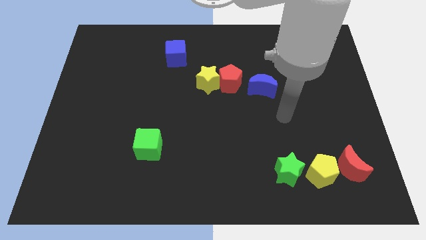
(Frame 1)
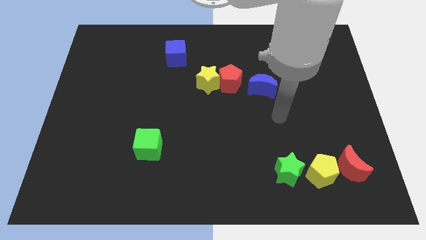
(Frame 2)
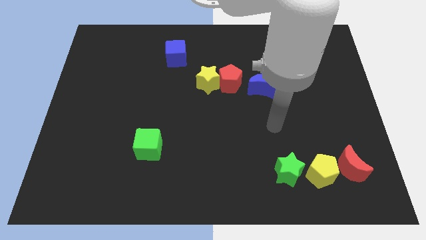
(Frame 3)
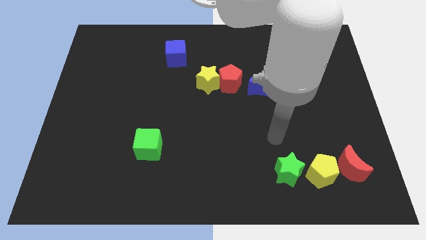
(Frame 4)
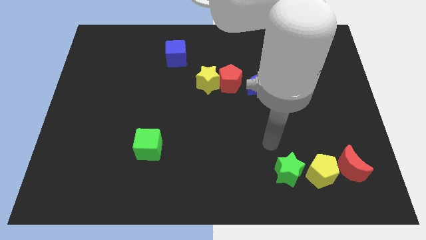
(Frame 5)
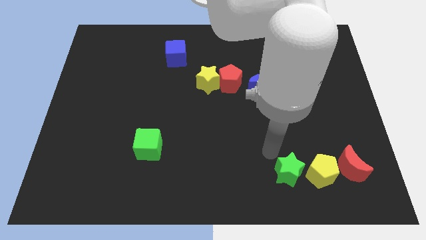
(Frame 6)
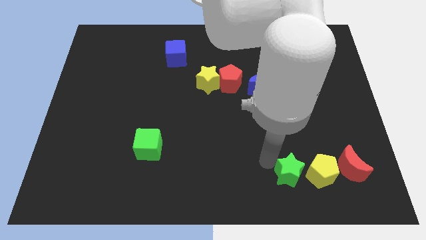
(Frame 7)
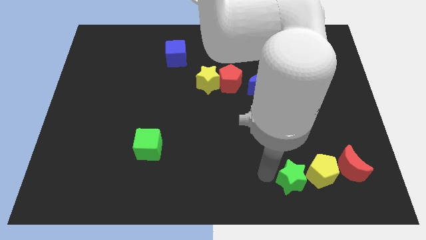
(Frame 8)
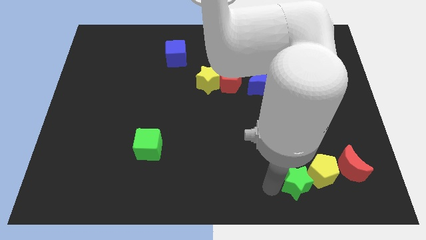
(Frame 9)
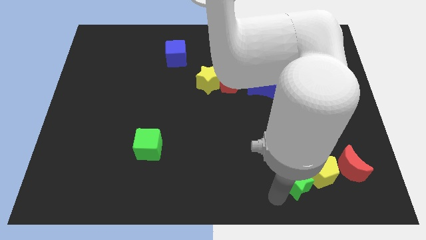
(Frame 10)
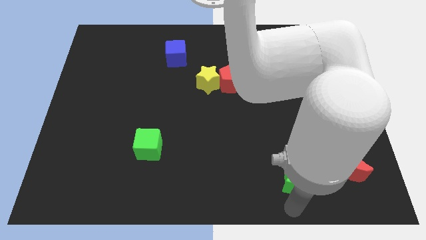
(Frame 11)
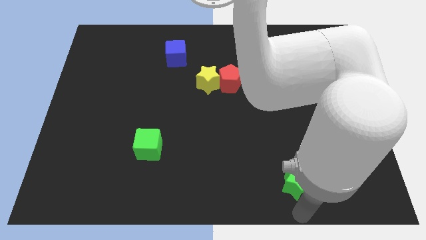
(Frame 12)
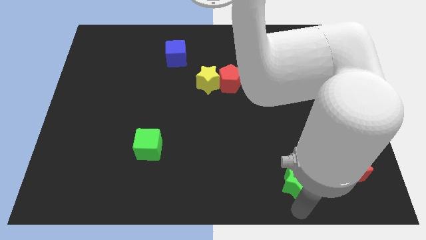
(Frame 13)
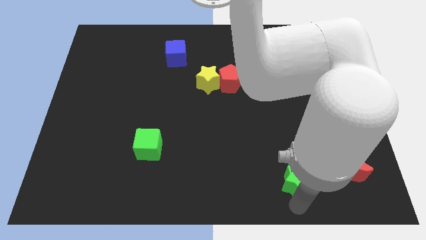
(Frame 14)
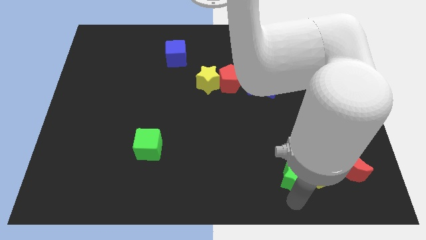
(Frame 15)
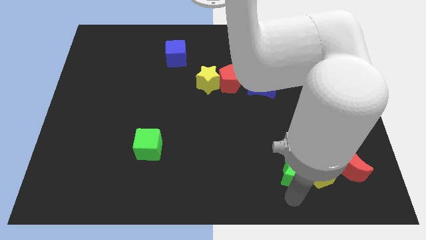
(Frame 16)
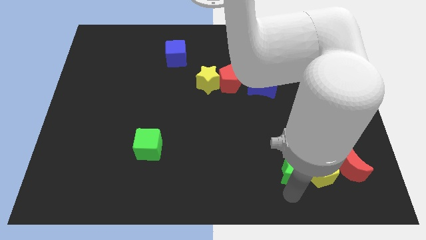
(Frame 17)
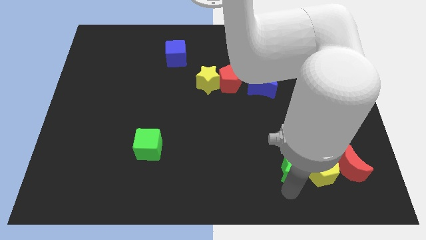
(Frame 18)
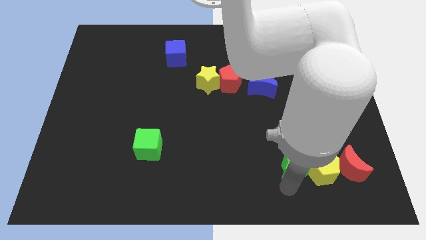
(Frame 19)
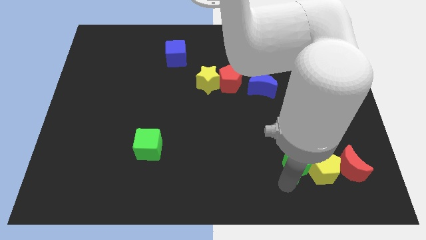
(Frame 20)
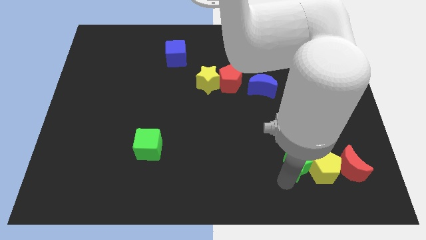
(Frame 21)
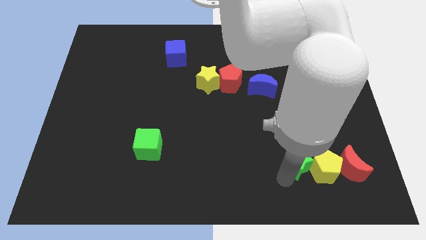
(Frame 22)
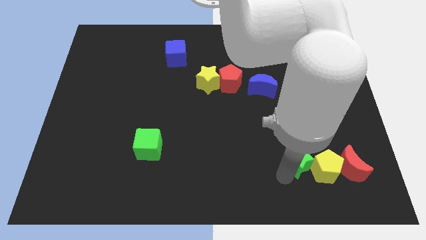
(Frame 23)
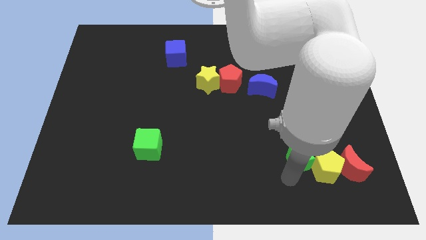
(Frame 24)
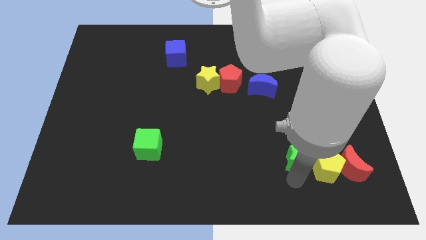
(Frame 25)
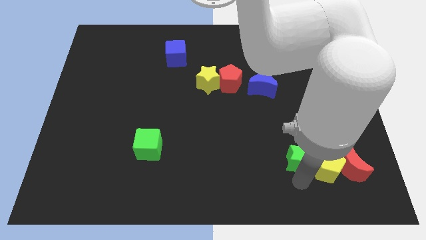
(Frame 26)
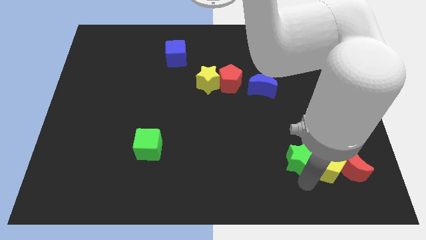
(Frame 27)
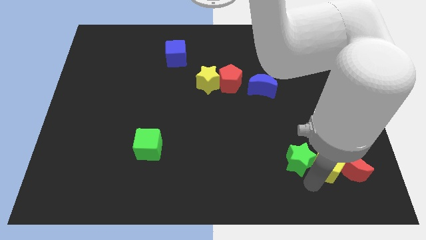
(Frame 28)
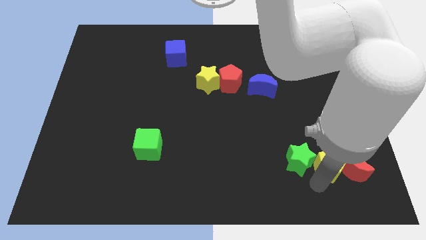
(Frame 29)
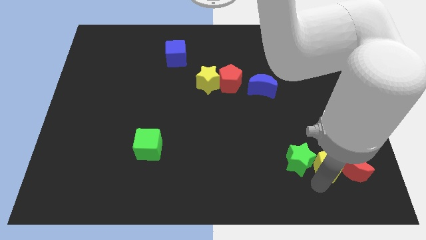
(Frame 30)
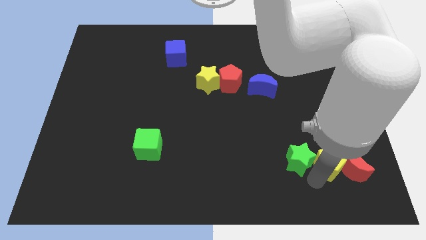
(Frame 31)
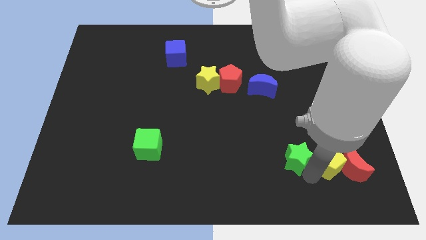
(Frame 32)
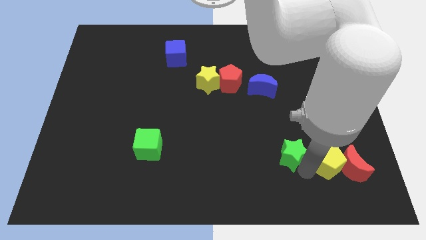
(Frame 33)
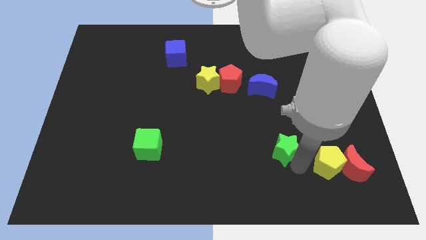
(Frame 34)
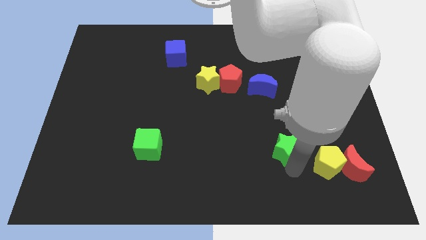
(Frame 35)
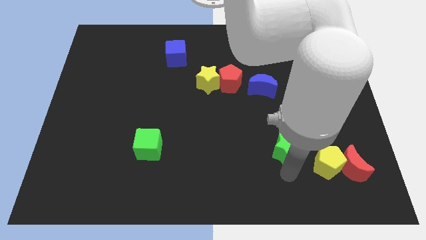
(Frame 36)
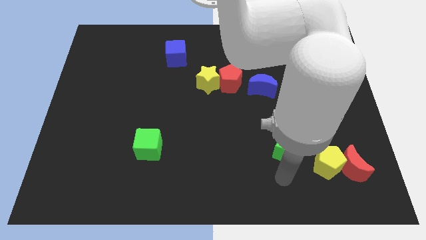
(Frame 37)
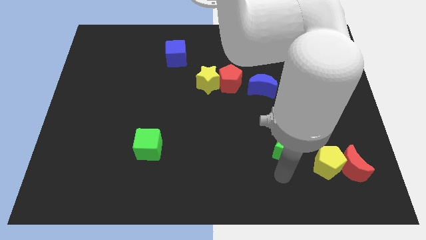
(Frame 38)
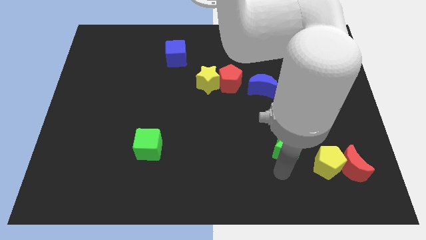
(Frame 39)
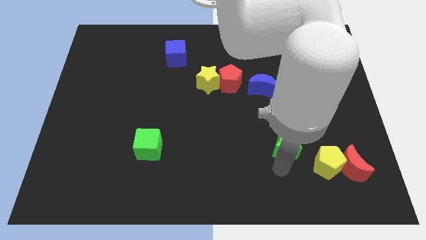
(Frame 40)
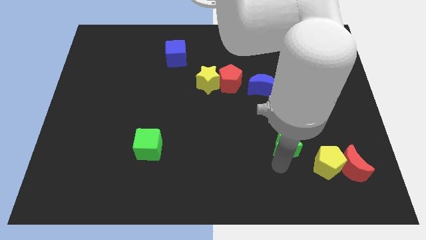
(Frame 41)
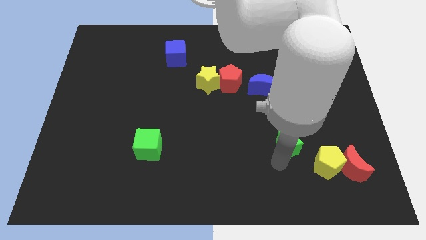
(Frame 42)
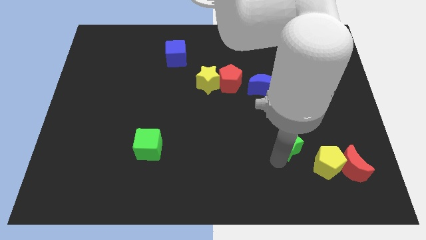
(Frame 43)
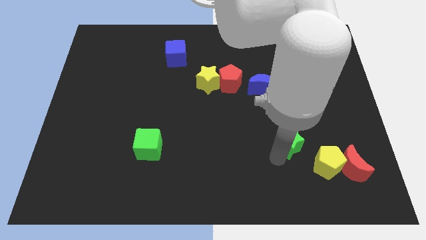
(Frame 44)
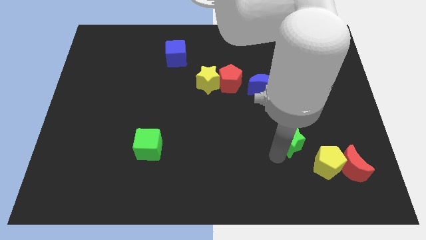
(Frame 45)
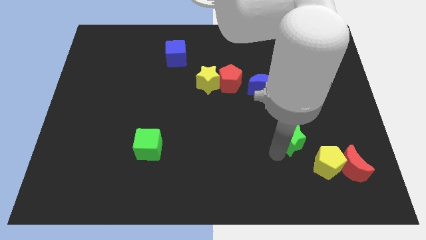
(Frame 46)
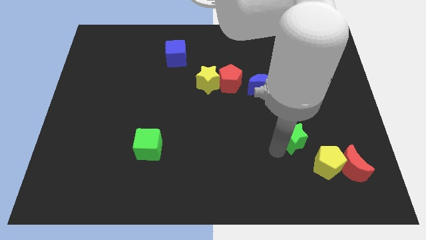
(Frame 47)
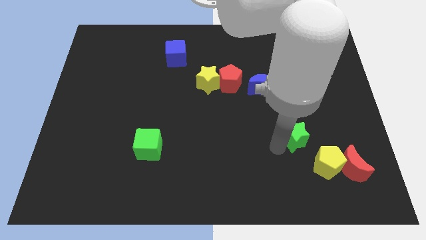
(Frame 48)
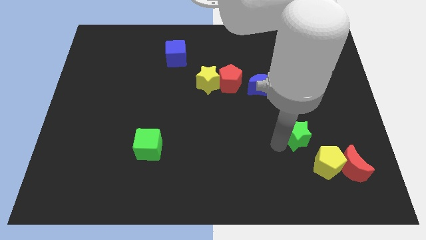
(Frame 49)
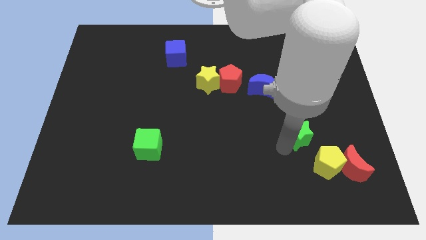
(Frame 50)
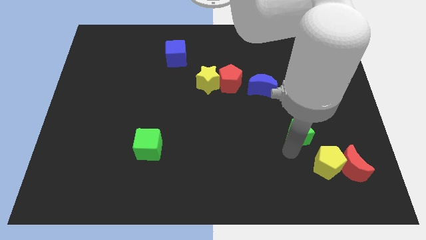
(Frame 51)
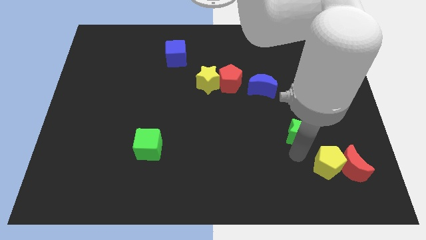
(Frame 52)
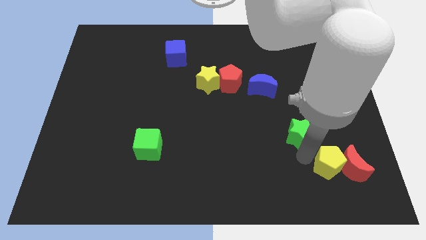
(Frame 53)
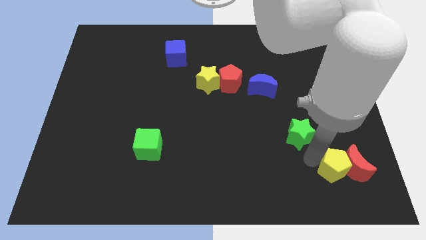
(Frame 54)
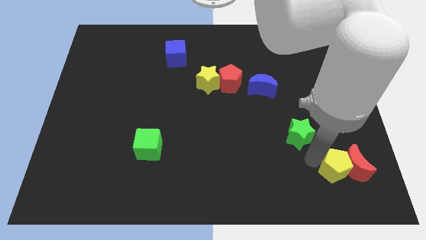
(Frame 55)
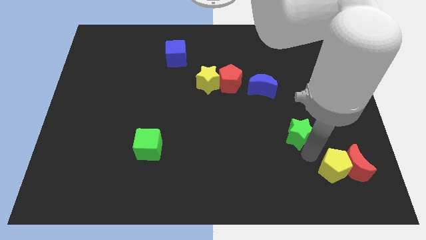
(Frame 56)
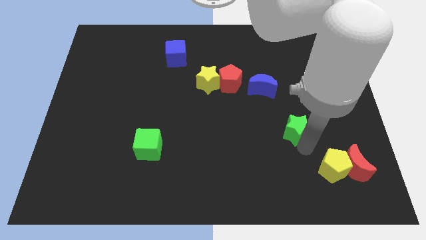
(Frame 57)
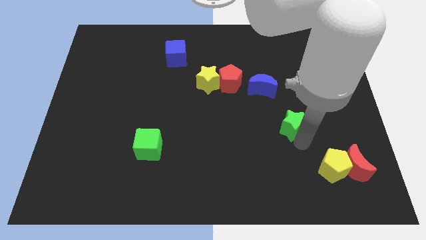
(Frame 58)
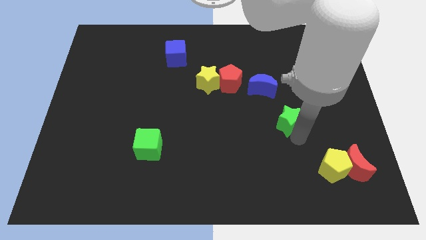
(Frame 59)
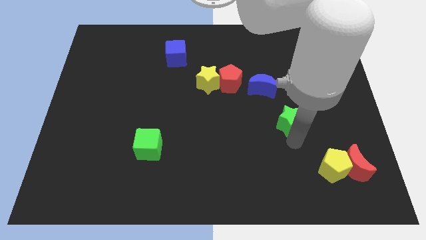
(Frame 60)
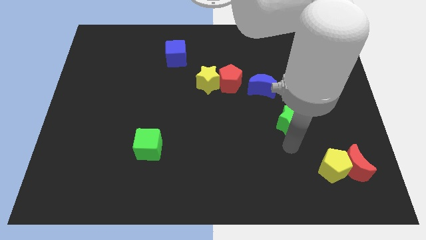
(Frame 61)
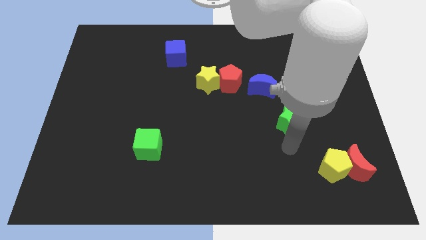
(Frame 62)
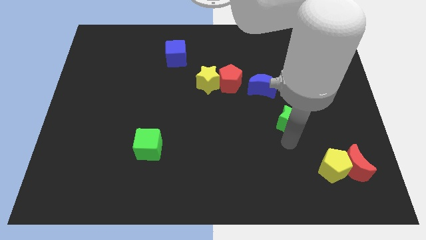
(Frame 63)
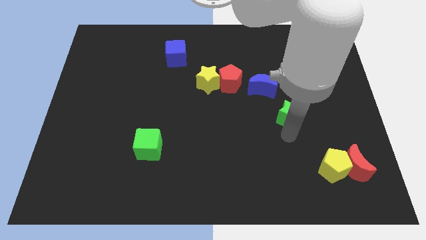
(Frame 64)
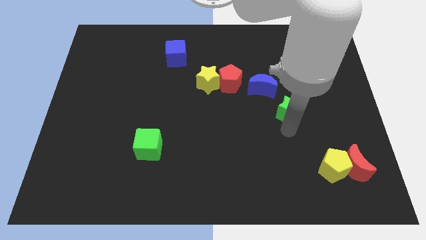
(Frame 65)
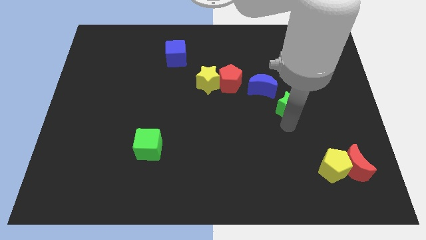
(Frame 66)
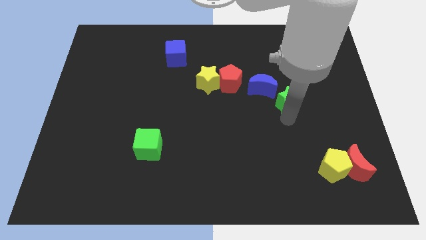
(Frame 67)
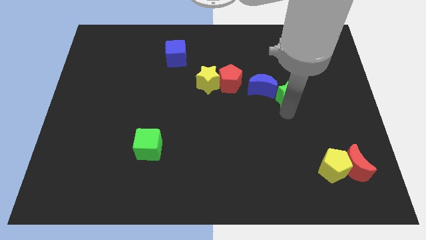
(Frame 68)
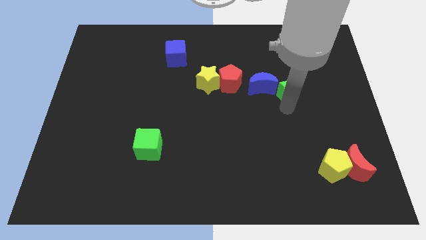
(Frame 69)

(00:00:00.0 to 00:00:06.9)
move the green star up

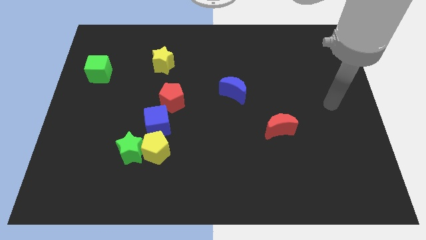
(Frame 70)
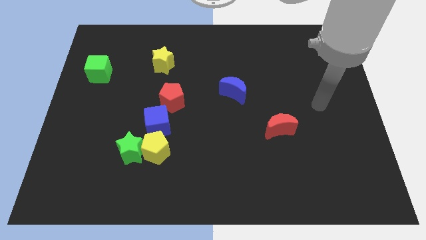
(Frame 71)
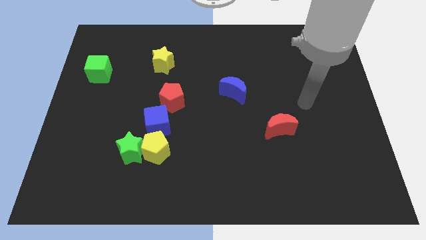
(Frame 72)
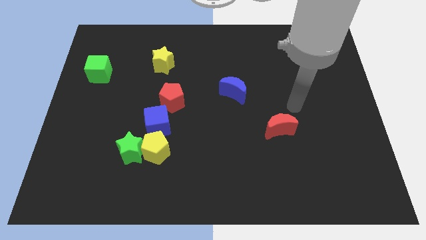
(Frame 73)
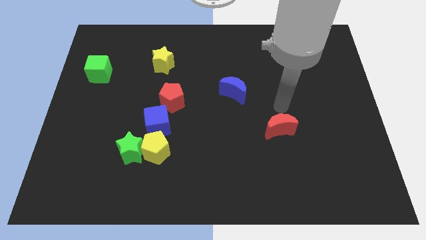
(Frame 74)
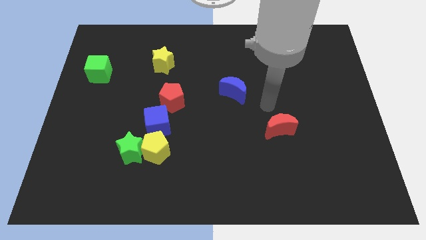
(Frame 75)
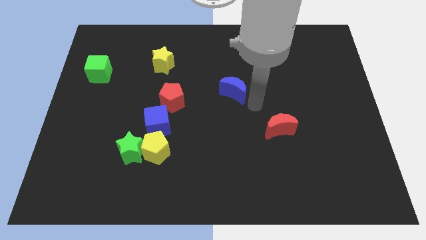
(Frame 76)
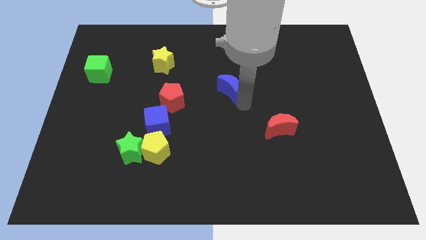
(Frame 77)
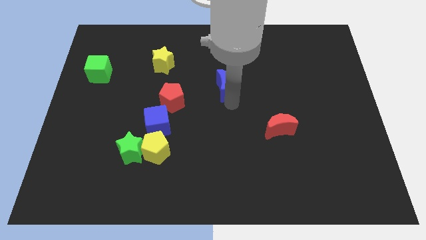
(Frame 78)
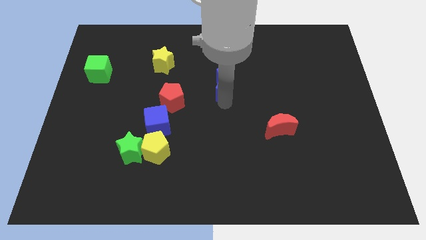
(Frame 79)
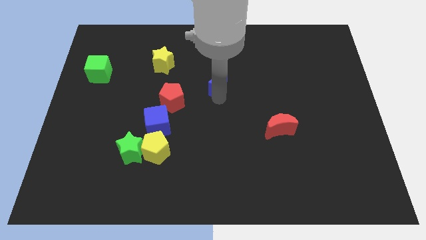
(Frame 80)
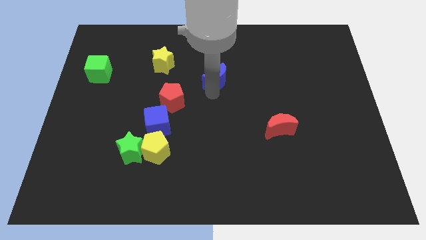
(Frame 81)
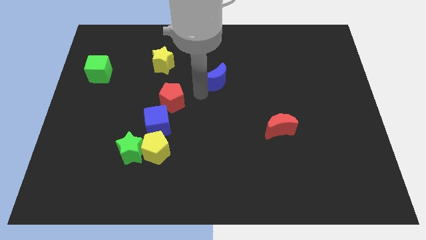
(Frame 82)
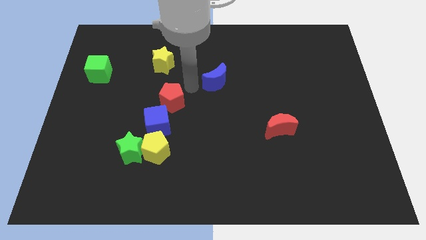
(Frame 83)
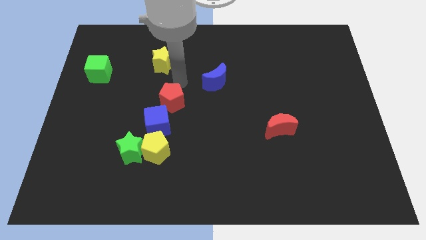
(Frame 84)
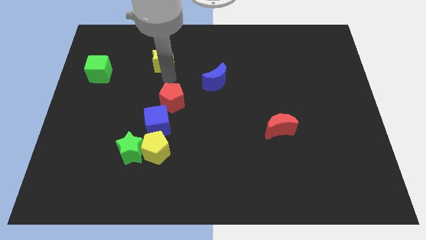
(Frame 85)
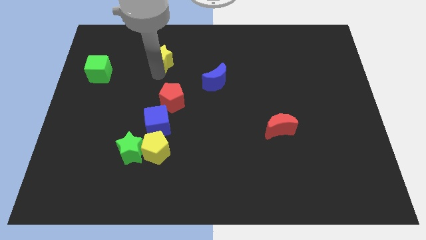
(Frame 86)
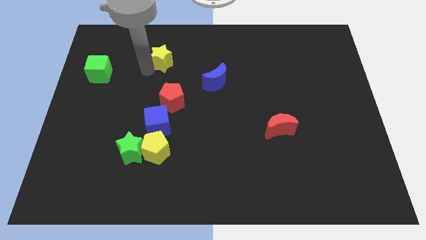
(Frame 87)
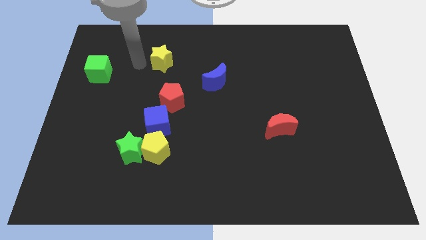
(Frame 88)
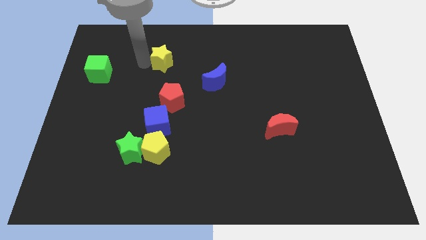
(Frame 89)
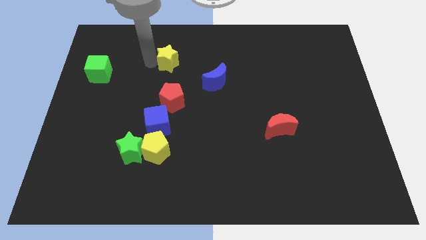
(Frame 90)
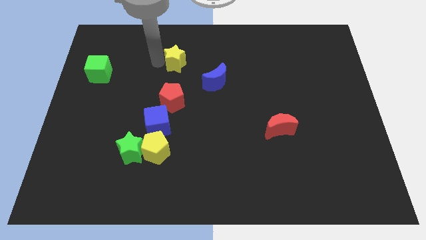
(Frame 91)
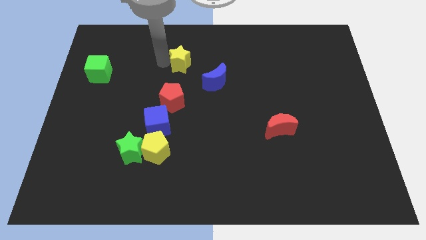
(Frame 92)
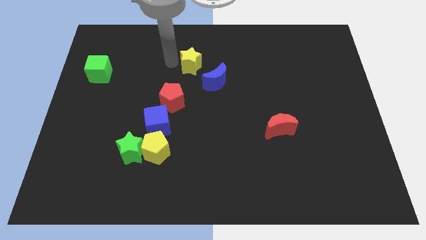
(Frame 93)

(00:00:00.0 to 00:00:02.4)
slightly move the yellow star right
